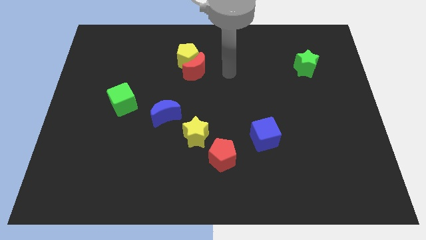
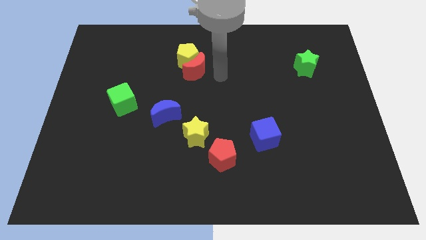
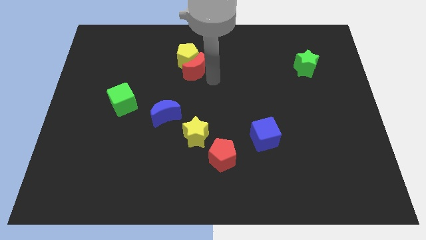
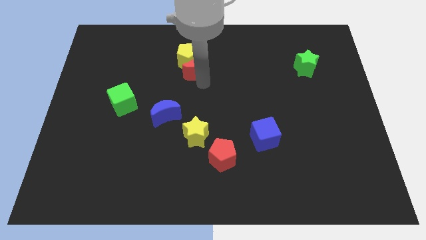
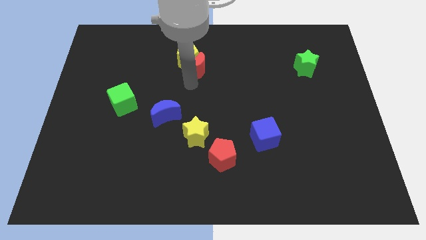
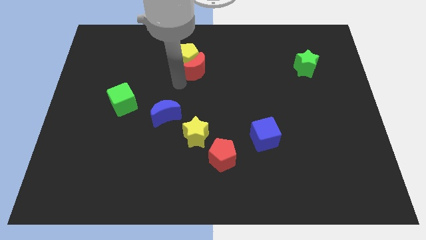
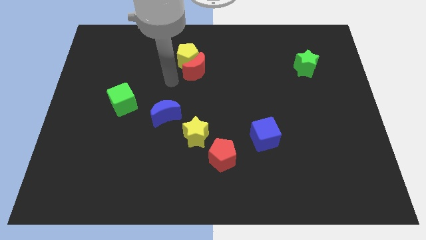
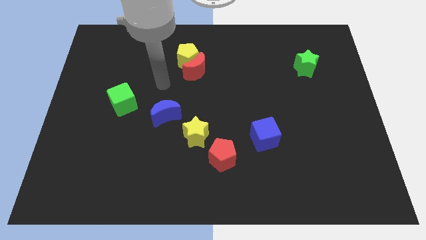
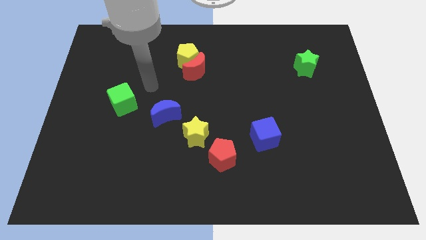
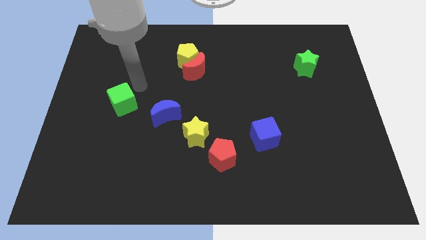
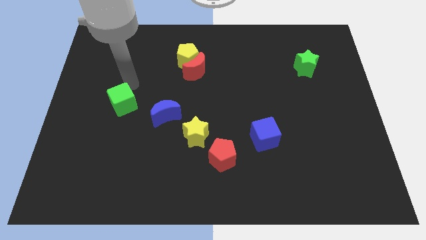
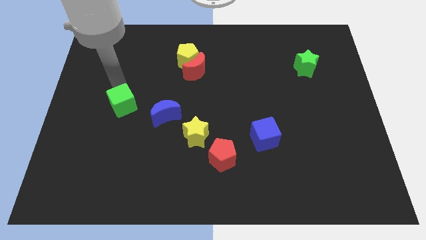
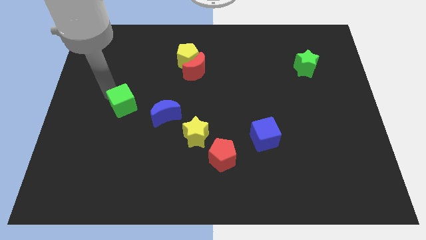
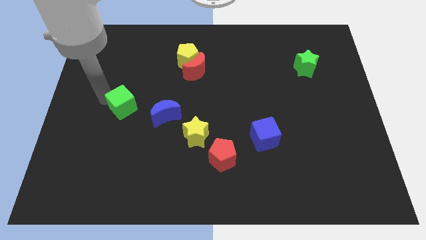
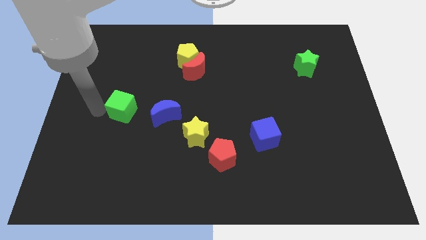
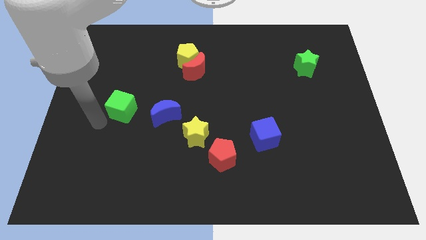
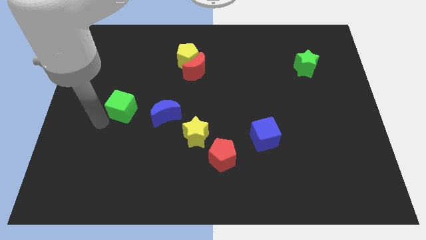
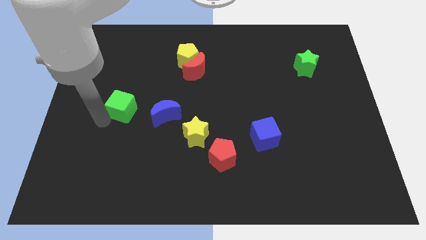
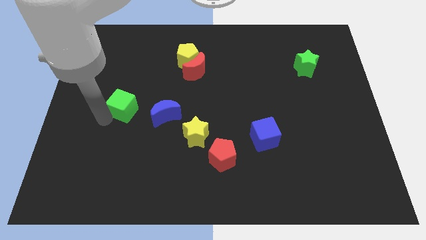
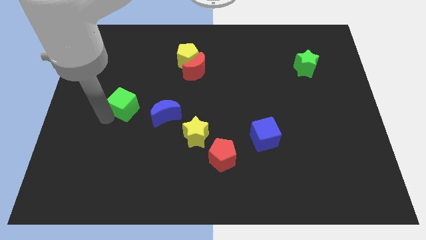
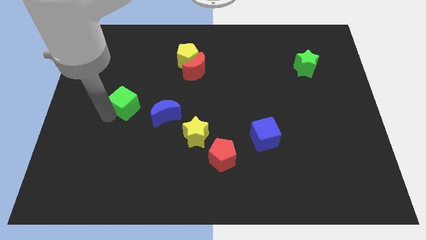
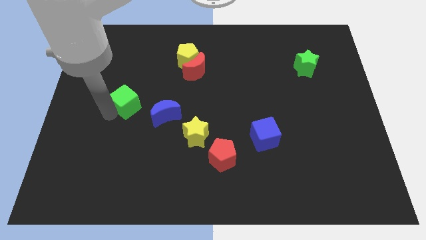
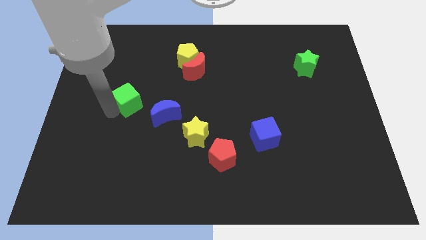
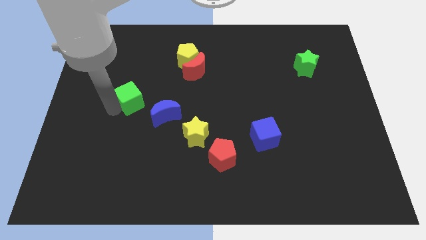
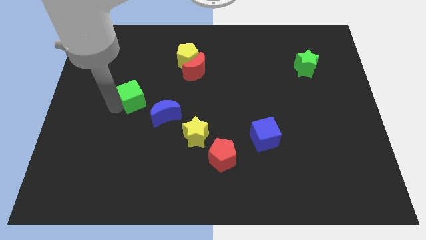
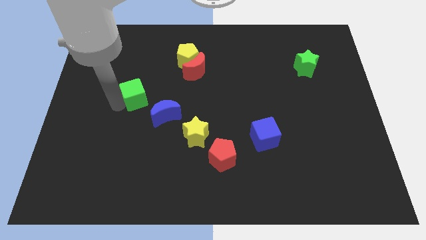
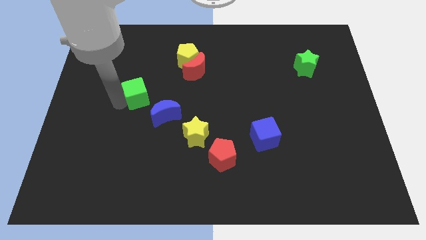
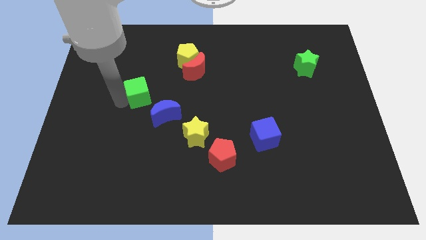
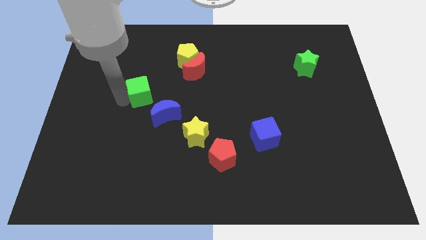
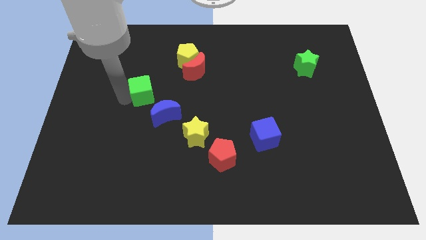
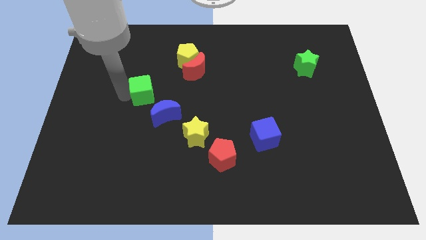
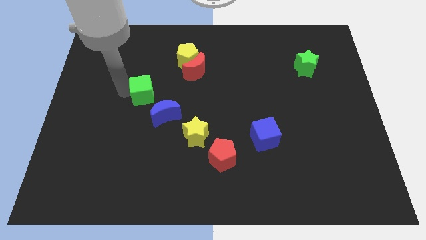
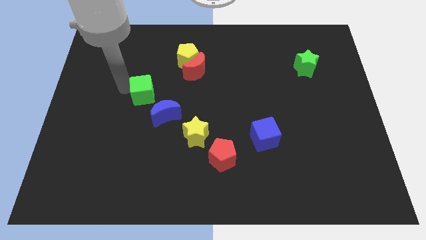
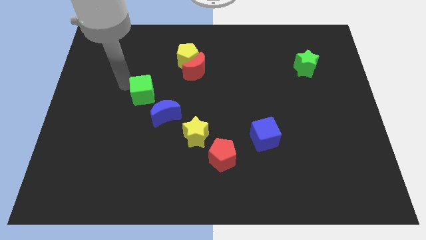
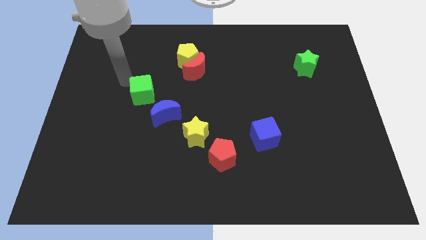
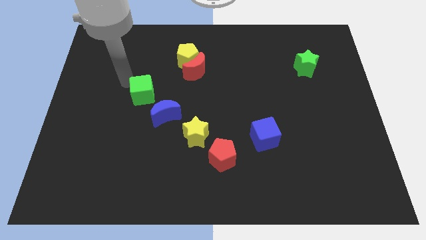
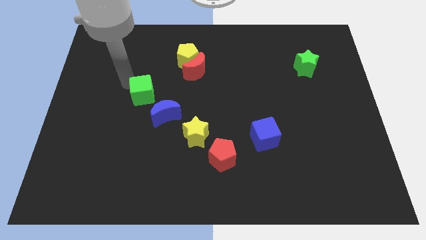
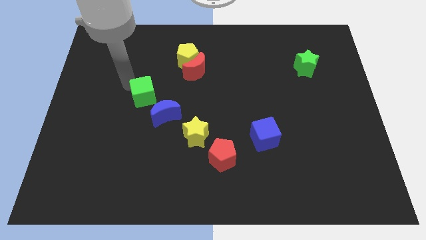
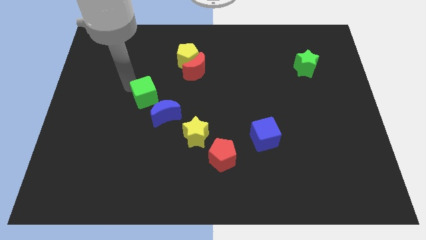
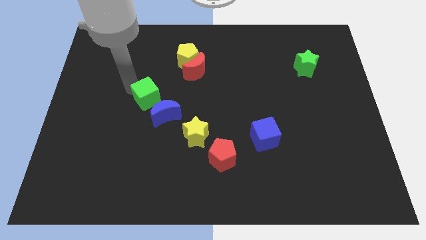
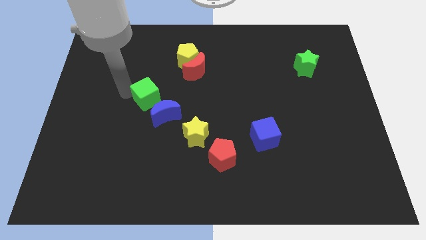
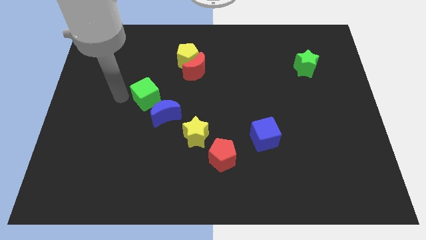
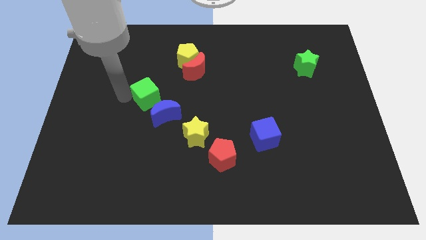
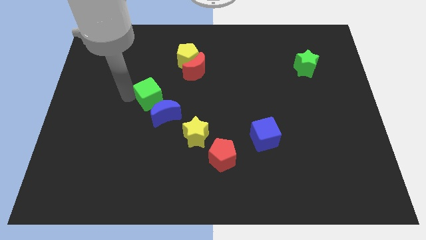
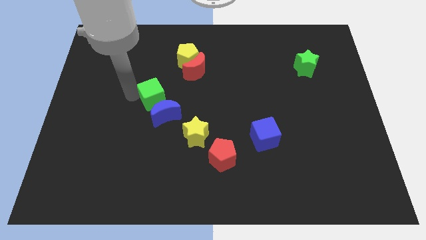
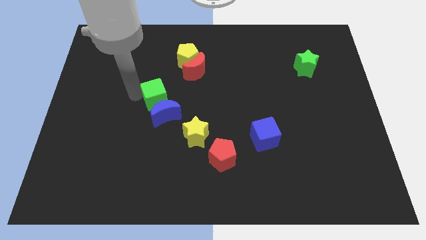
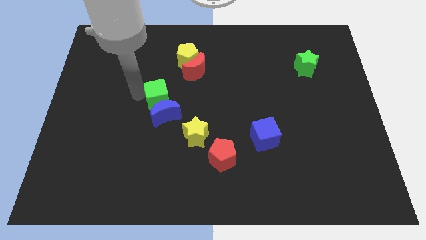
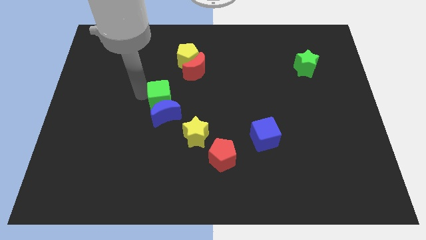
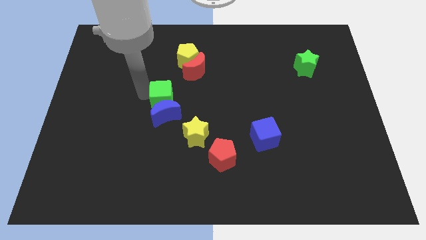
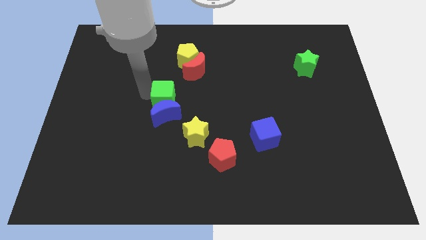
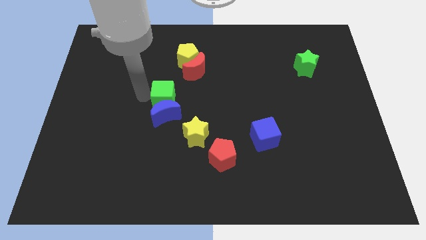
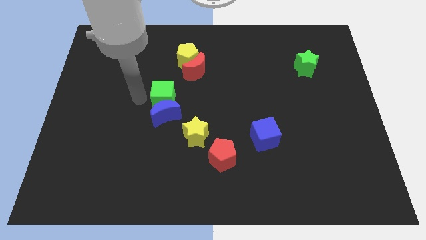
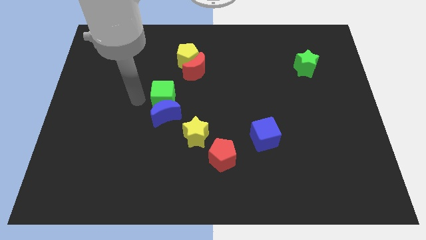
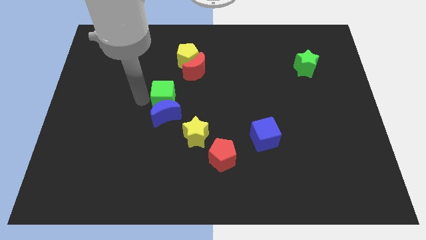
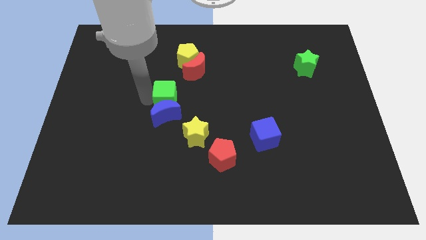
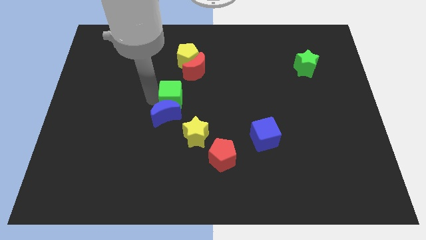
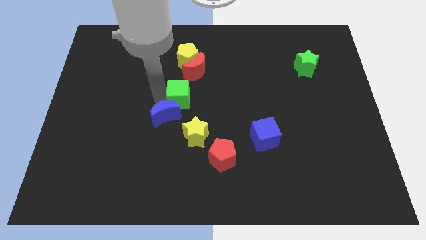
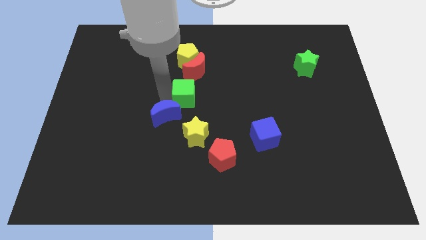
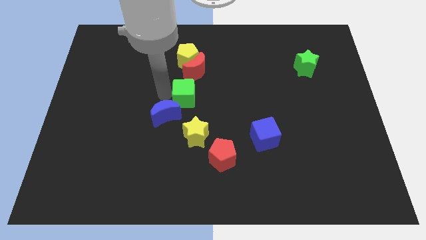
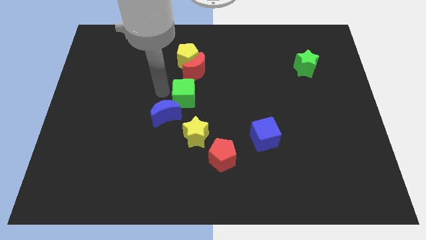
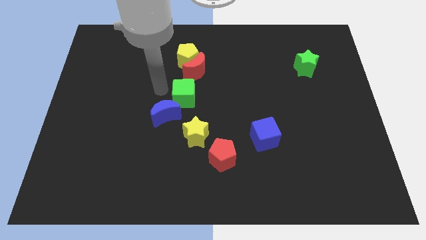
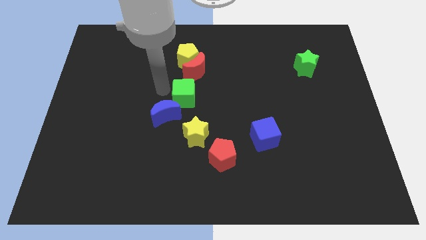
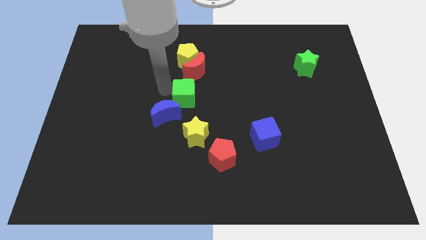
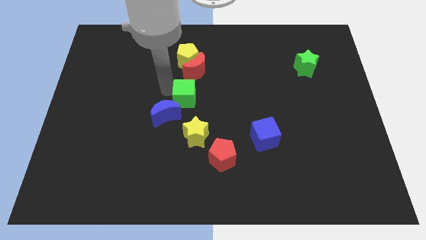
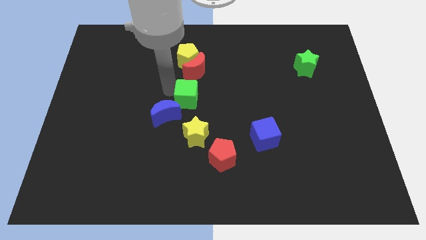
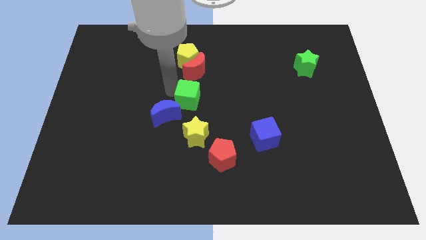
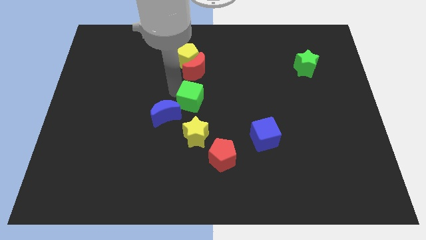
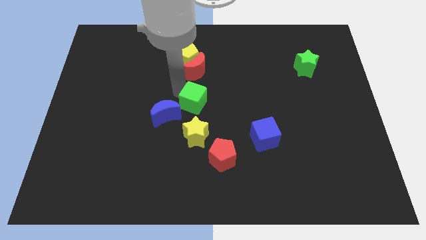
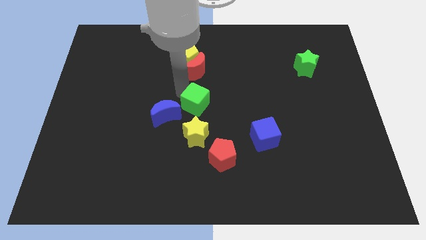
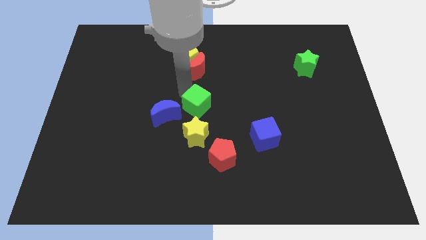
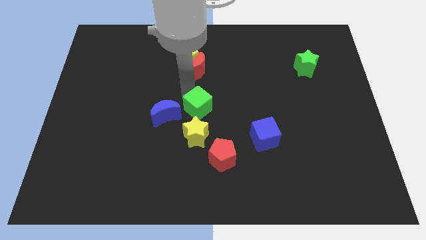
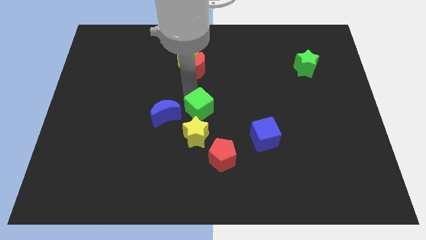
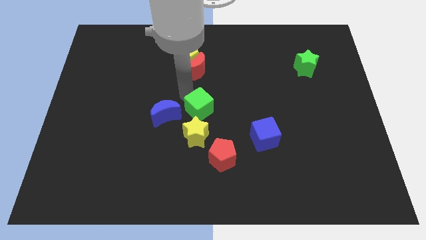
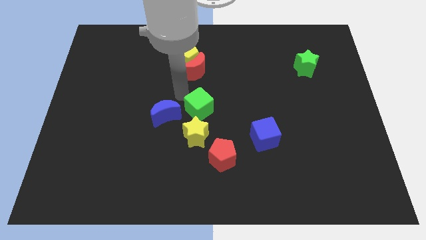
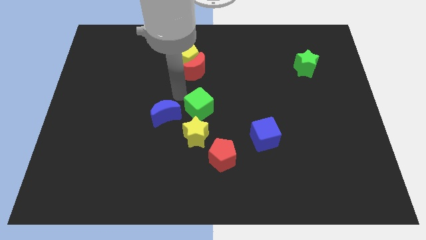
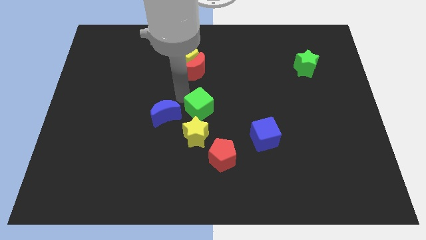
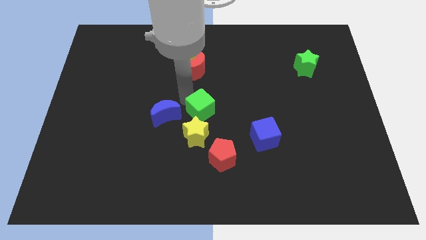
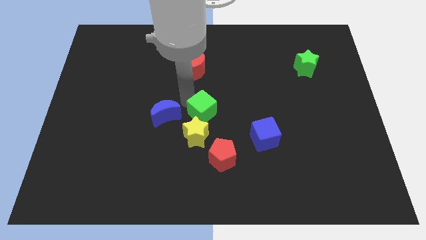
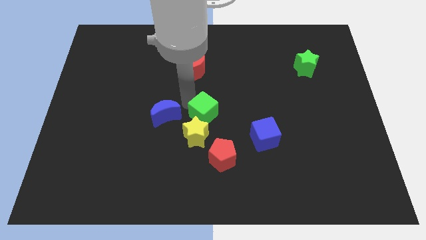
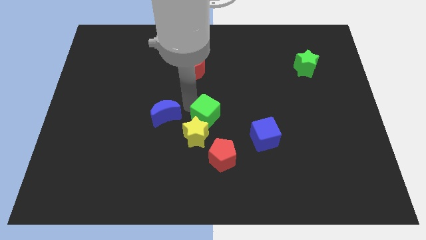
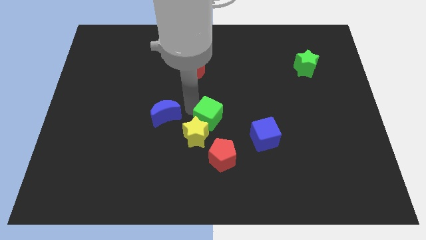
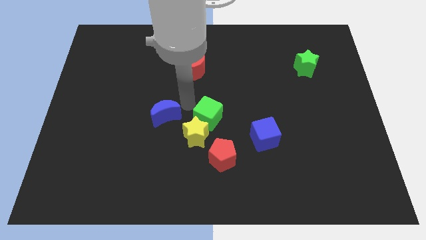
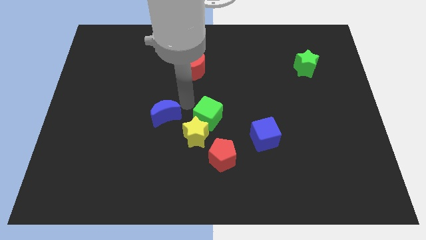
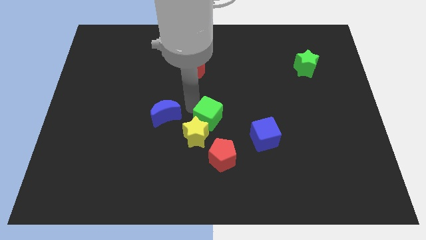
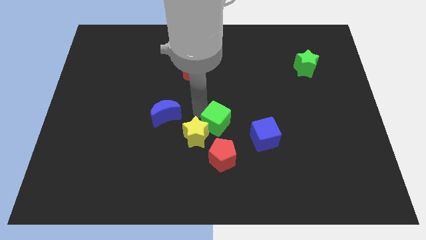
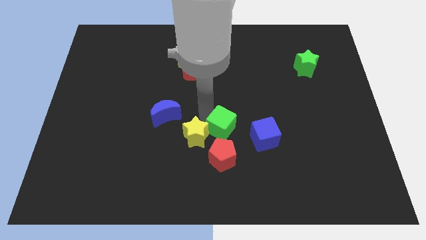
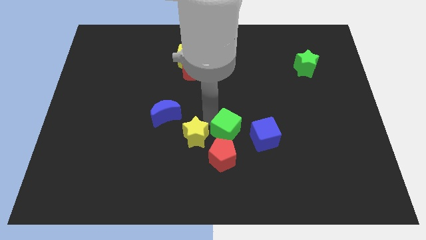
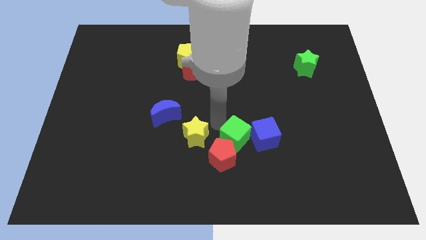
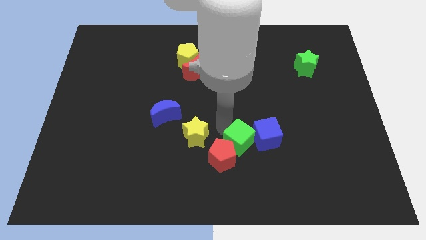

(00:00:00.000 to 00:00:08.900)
push the green cube to the right of the red pentagon
